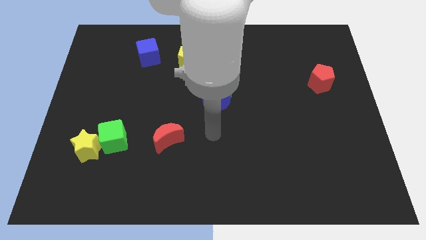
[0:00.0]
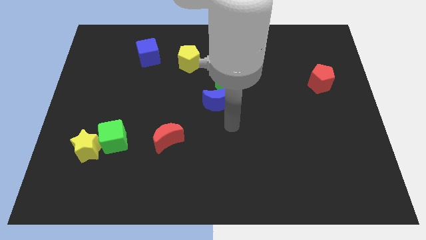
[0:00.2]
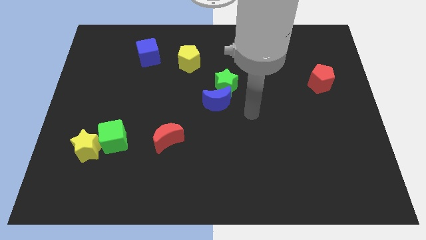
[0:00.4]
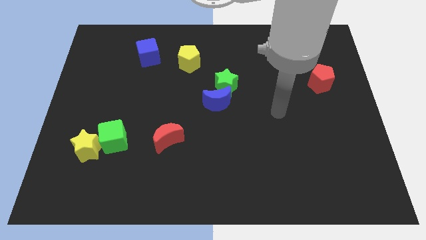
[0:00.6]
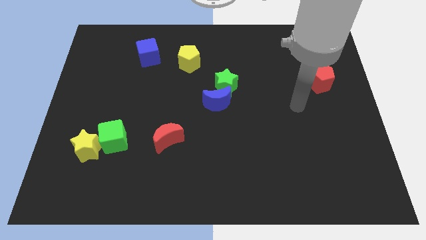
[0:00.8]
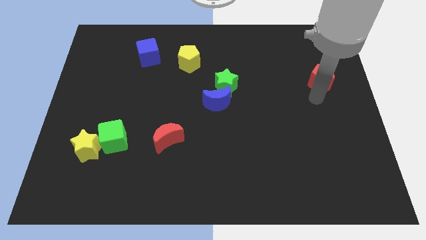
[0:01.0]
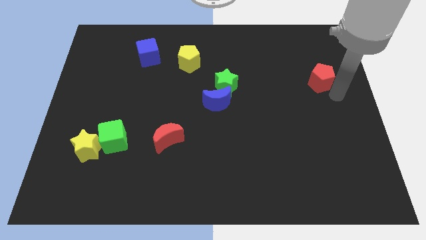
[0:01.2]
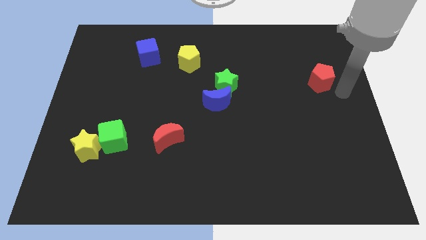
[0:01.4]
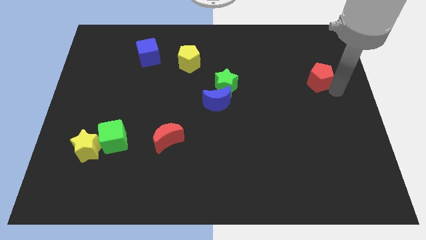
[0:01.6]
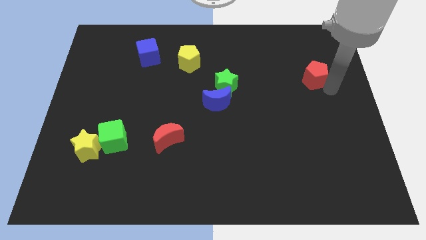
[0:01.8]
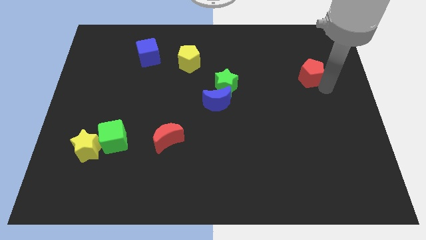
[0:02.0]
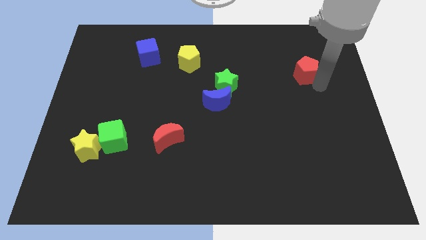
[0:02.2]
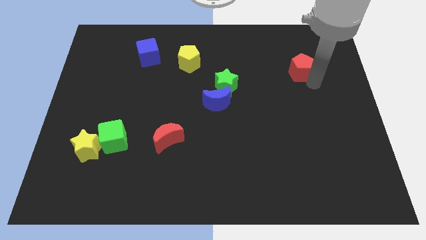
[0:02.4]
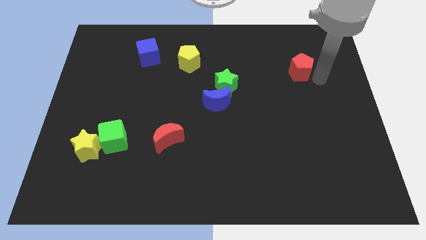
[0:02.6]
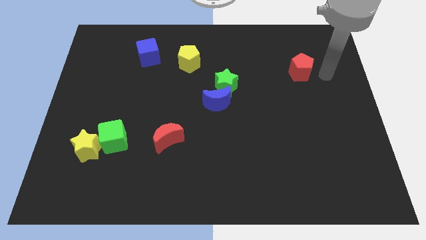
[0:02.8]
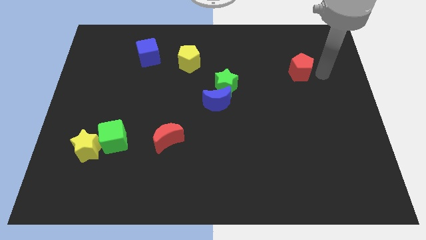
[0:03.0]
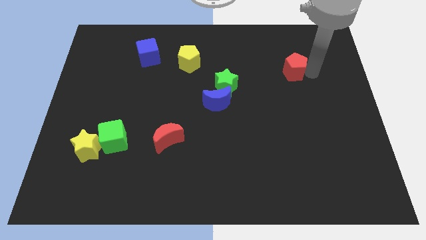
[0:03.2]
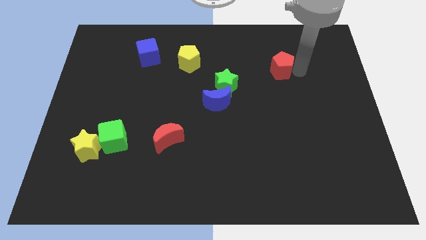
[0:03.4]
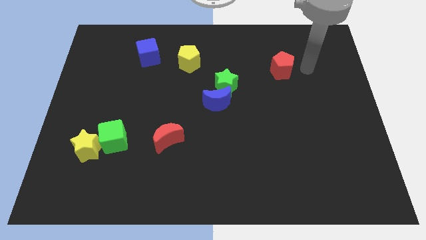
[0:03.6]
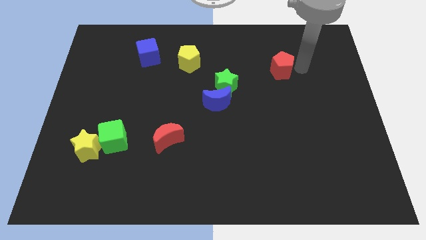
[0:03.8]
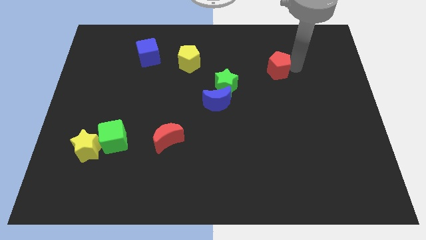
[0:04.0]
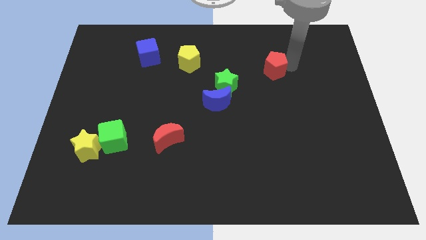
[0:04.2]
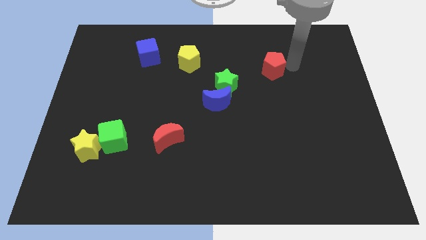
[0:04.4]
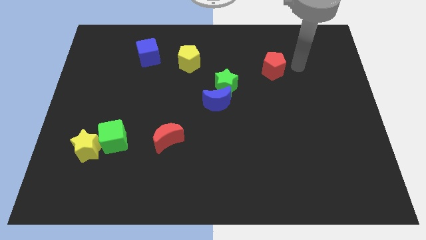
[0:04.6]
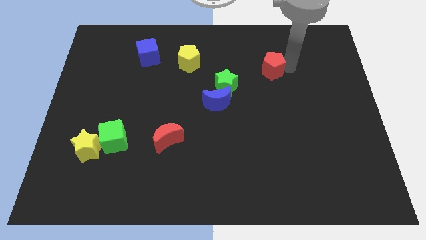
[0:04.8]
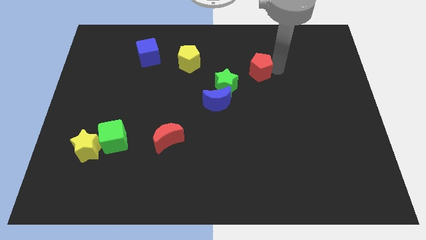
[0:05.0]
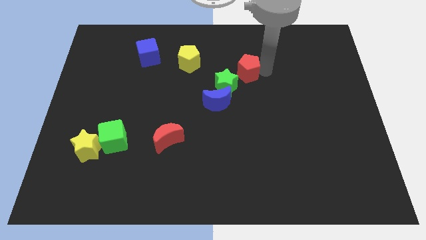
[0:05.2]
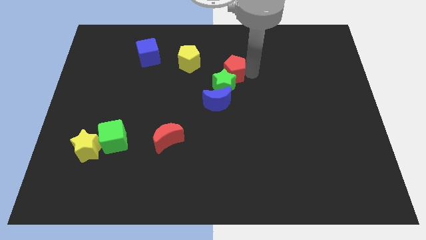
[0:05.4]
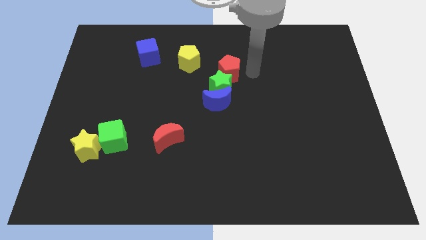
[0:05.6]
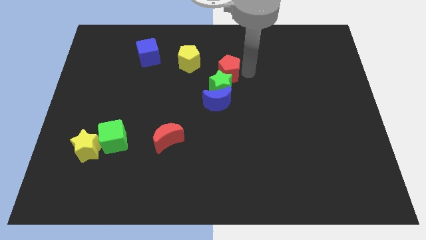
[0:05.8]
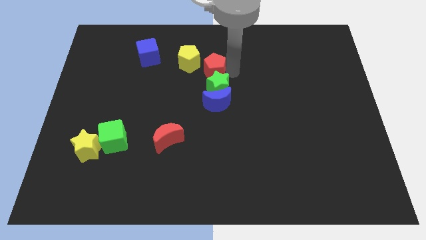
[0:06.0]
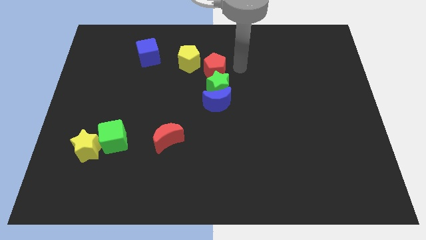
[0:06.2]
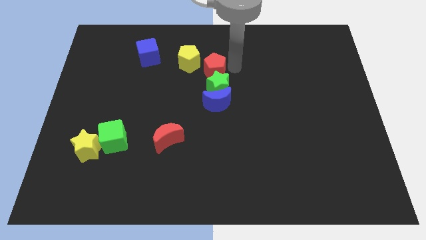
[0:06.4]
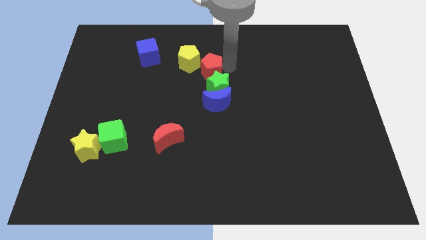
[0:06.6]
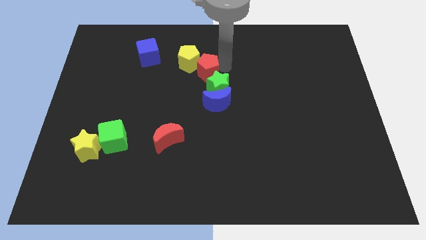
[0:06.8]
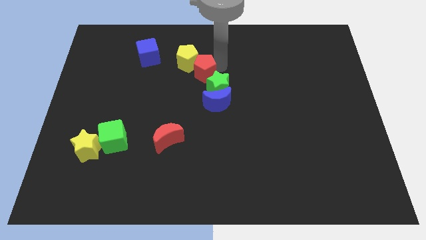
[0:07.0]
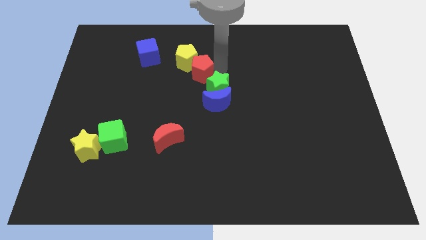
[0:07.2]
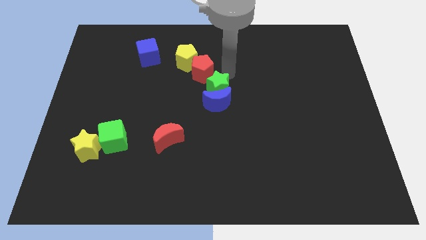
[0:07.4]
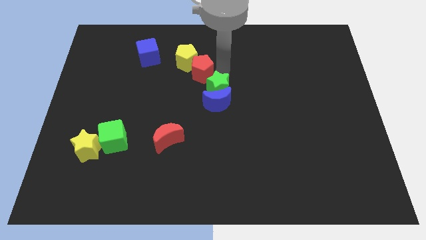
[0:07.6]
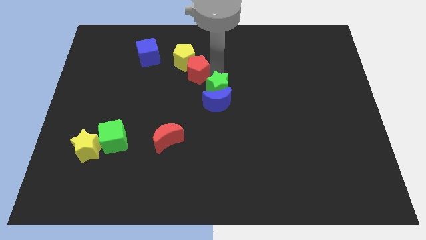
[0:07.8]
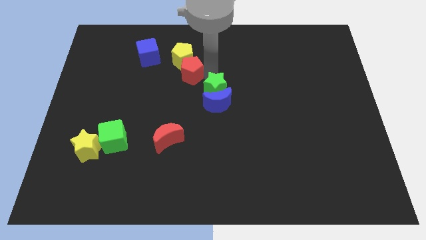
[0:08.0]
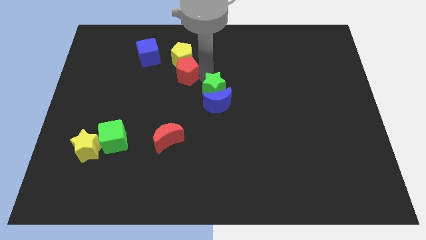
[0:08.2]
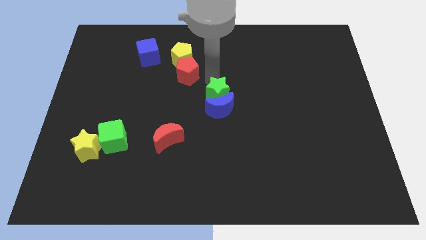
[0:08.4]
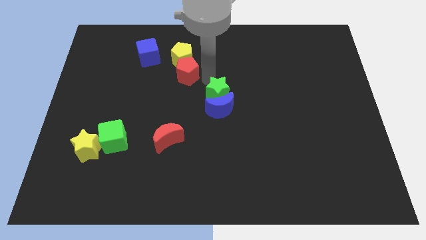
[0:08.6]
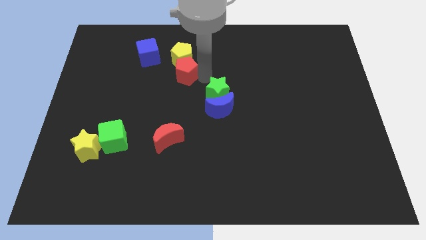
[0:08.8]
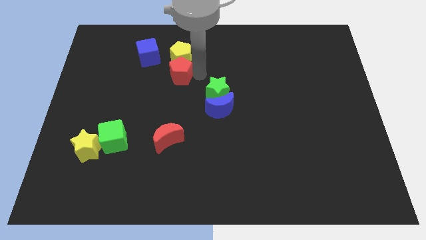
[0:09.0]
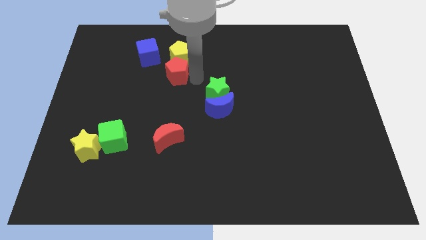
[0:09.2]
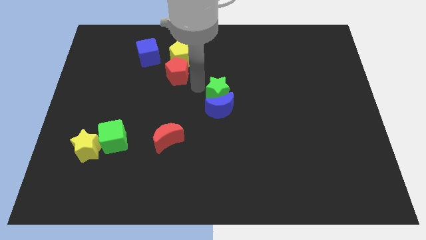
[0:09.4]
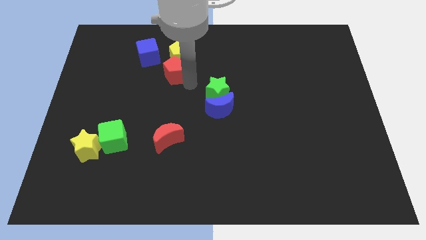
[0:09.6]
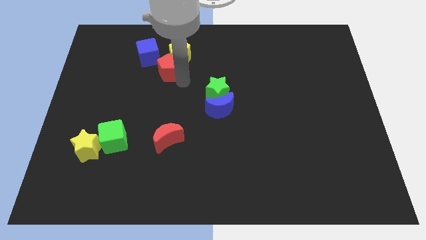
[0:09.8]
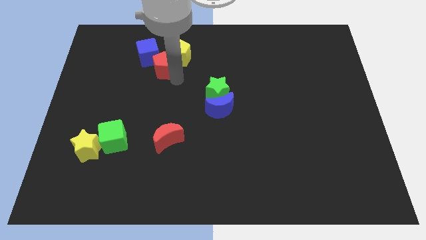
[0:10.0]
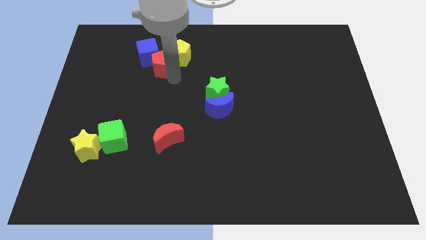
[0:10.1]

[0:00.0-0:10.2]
push the red pentagon to the blue cube

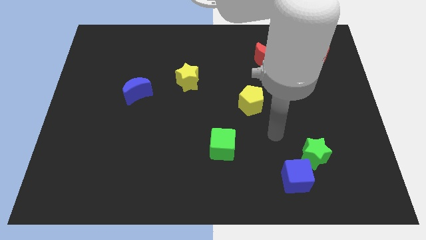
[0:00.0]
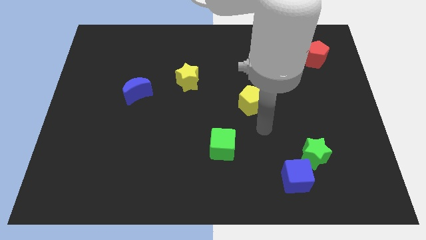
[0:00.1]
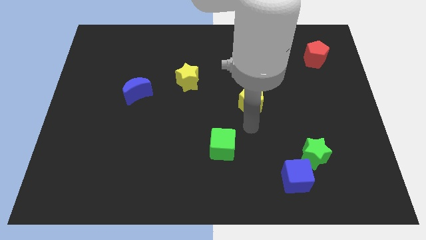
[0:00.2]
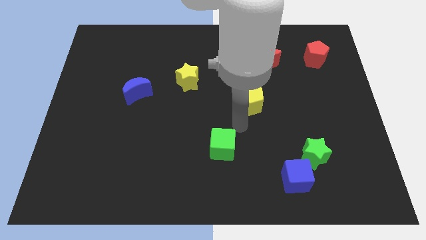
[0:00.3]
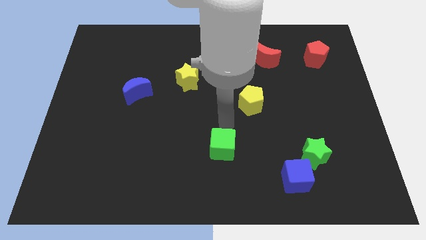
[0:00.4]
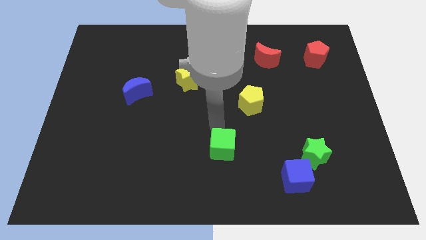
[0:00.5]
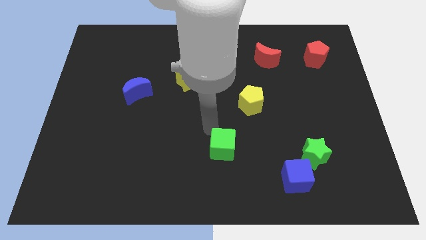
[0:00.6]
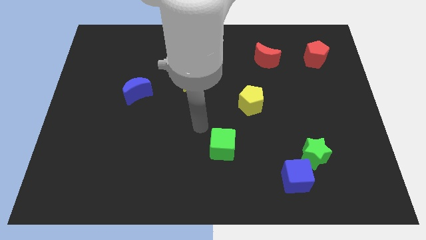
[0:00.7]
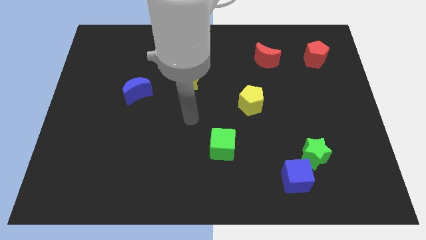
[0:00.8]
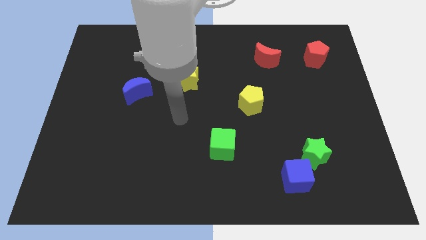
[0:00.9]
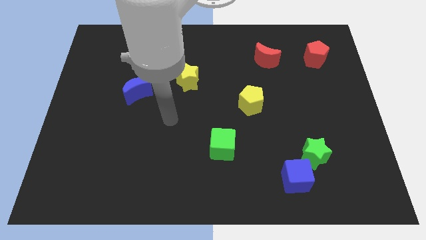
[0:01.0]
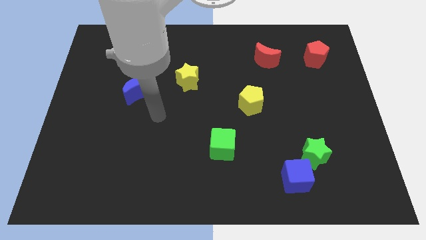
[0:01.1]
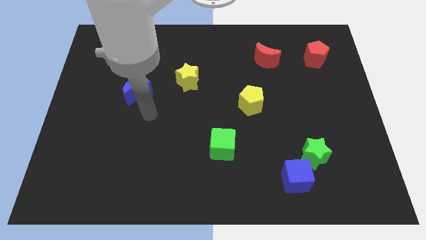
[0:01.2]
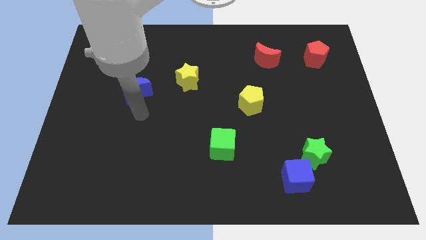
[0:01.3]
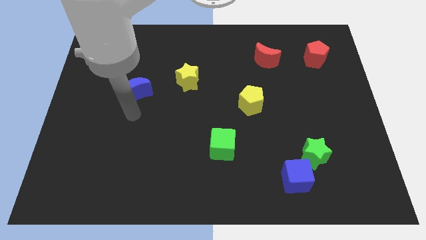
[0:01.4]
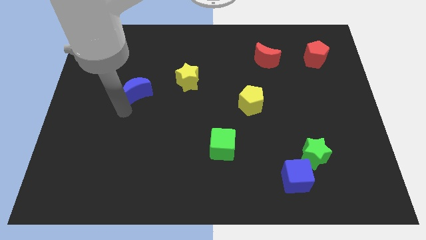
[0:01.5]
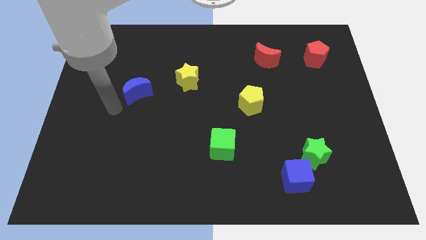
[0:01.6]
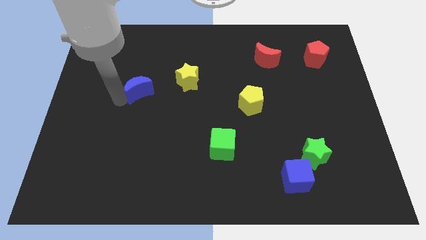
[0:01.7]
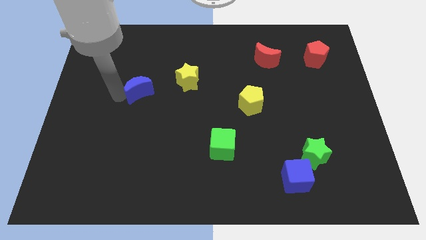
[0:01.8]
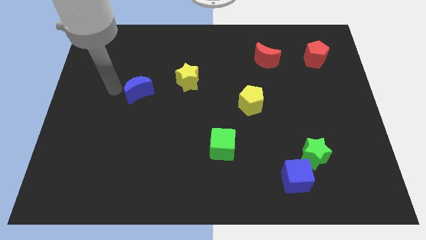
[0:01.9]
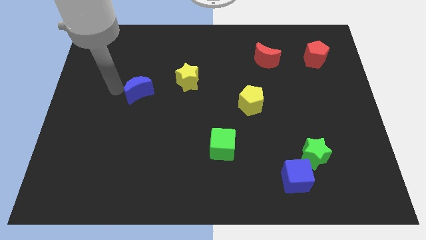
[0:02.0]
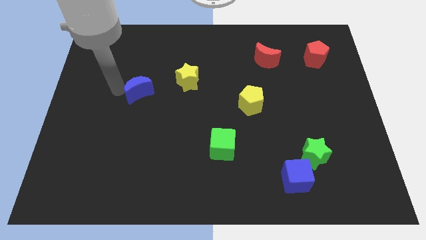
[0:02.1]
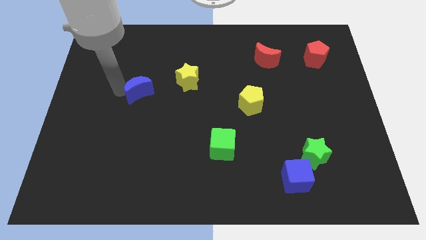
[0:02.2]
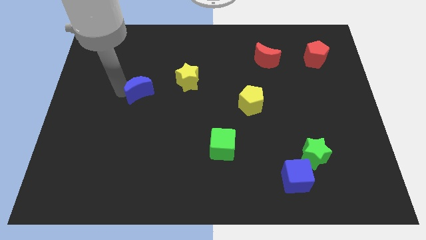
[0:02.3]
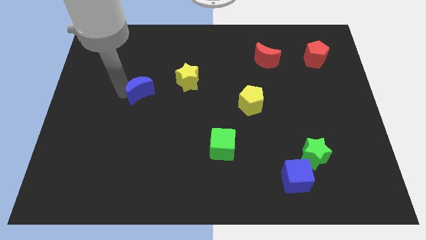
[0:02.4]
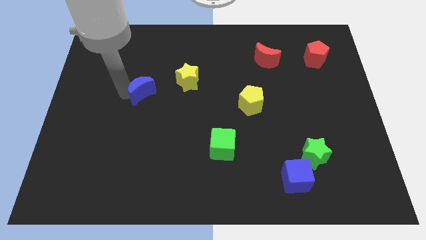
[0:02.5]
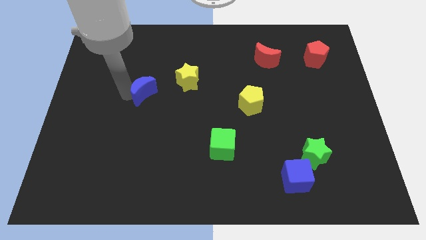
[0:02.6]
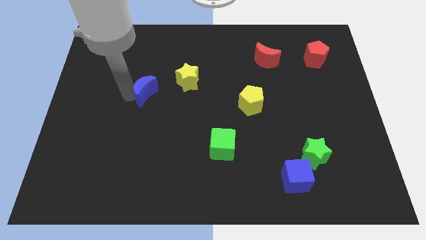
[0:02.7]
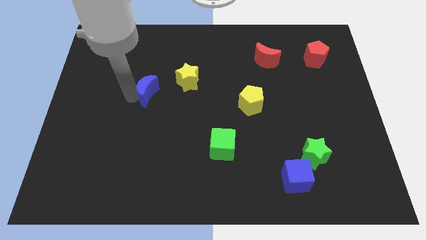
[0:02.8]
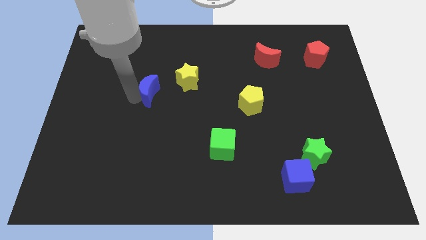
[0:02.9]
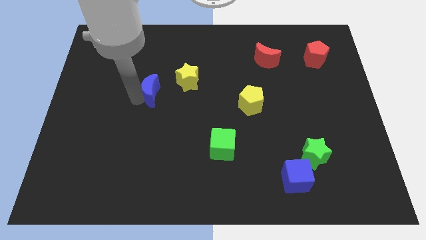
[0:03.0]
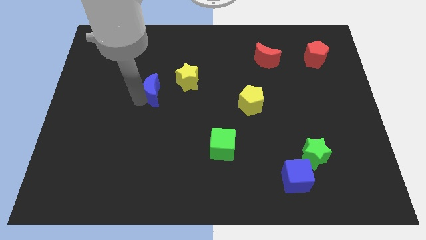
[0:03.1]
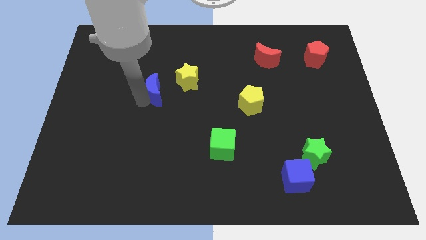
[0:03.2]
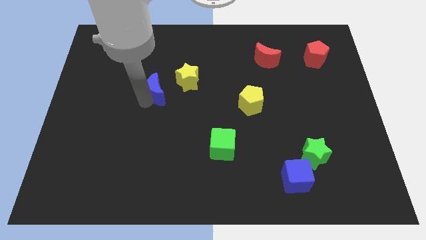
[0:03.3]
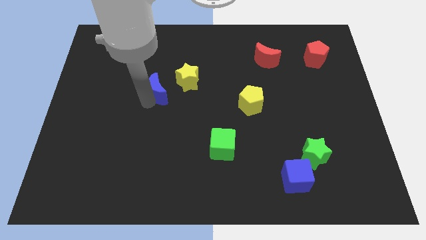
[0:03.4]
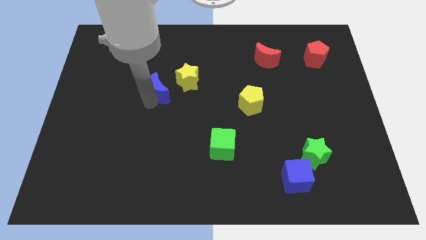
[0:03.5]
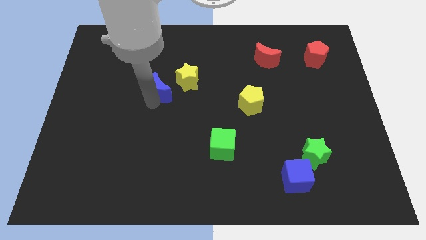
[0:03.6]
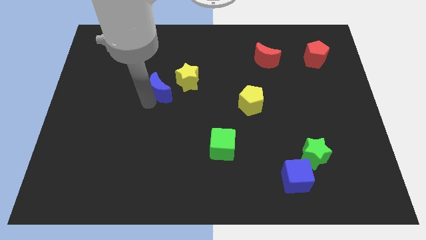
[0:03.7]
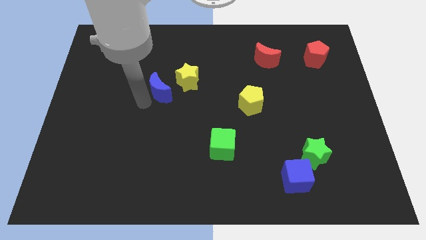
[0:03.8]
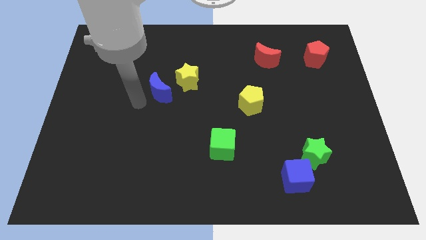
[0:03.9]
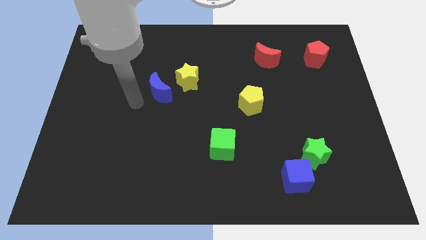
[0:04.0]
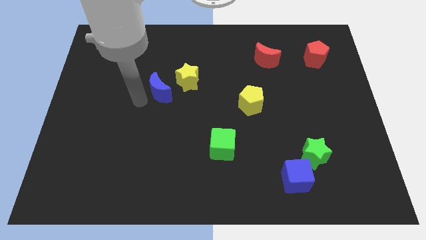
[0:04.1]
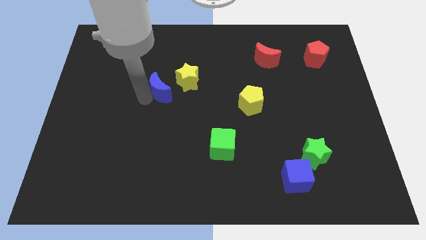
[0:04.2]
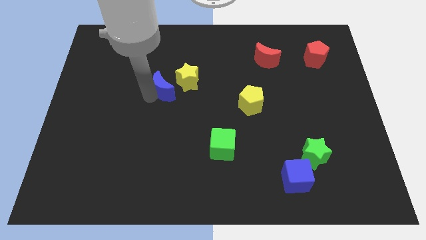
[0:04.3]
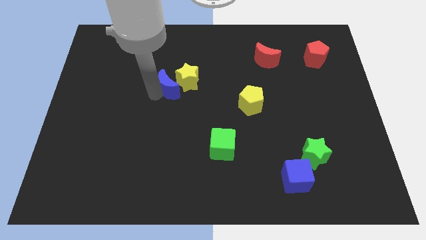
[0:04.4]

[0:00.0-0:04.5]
put the blue moon close to the yellow star
